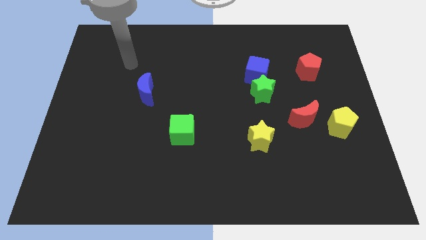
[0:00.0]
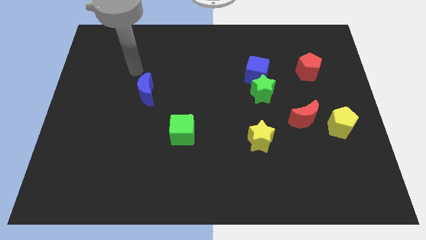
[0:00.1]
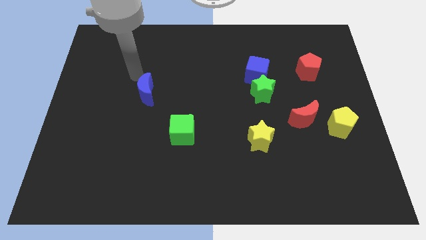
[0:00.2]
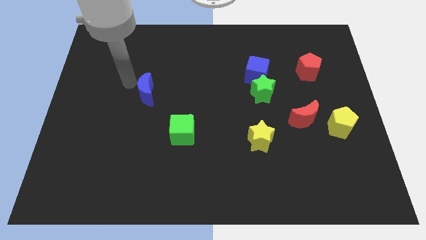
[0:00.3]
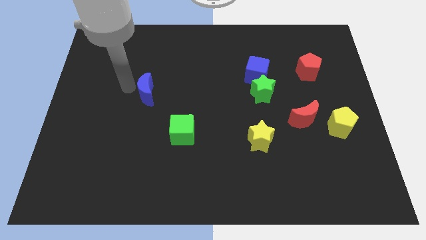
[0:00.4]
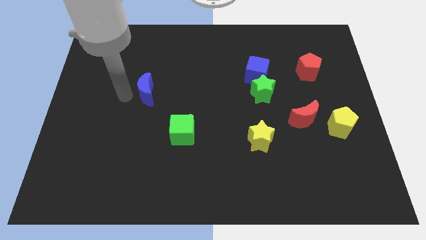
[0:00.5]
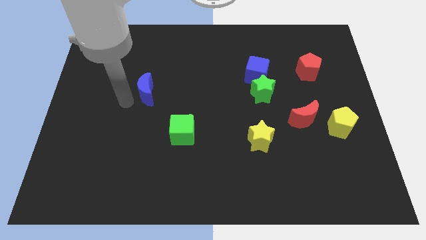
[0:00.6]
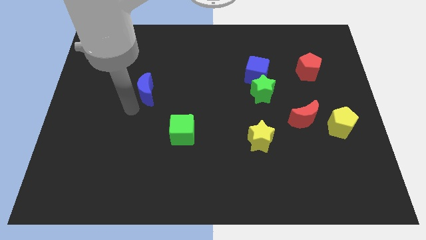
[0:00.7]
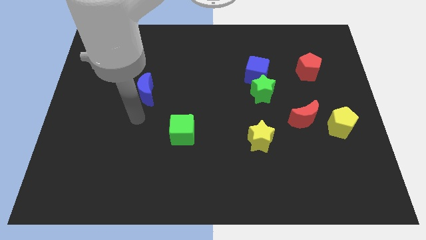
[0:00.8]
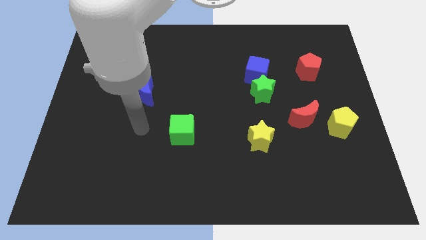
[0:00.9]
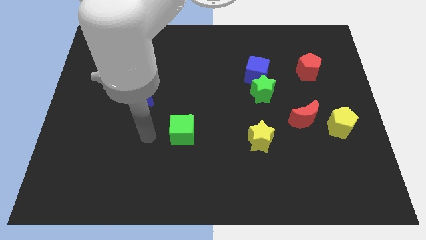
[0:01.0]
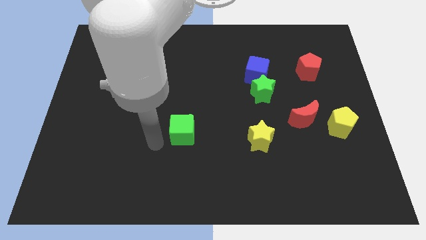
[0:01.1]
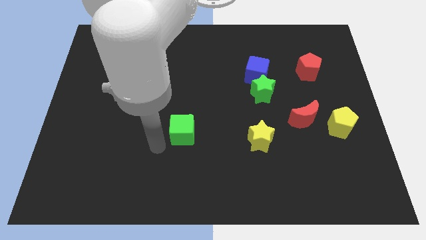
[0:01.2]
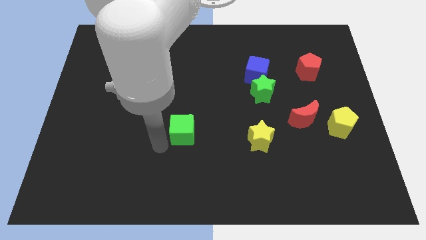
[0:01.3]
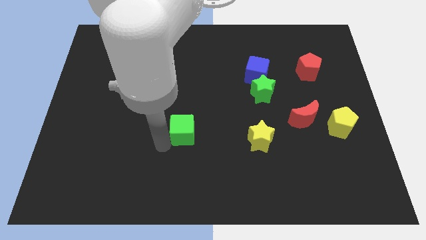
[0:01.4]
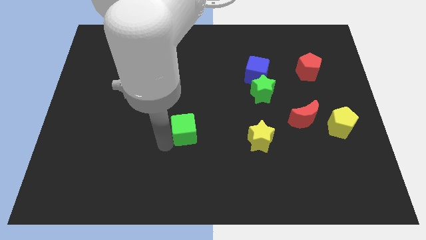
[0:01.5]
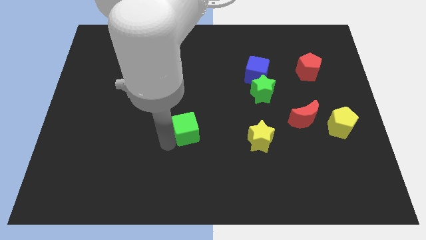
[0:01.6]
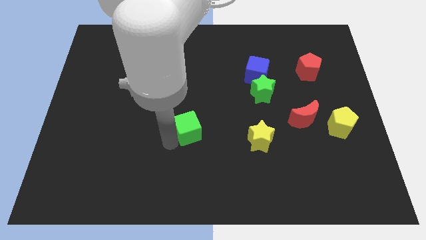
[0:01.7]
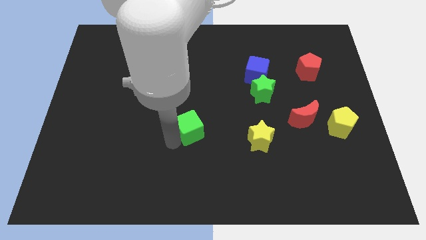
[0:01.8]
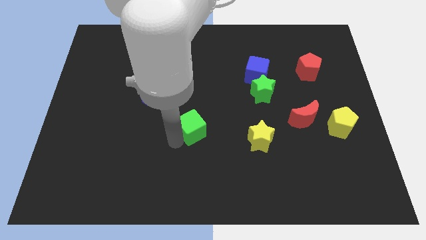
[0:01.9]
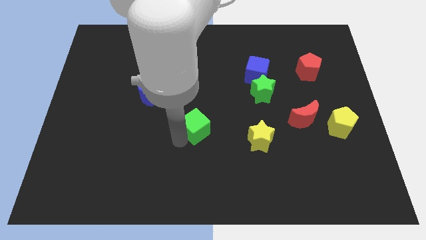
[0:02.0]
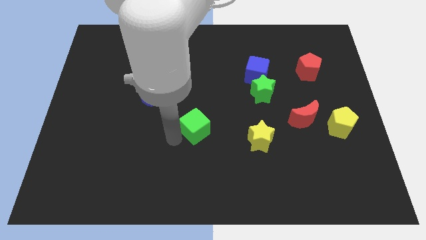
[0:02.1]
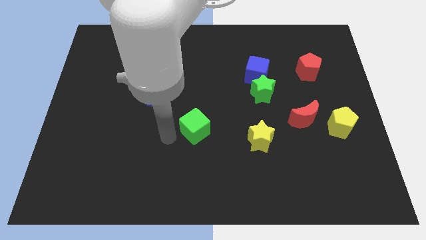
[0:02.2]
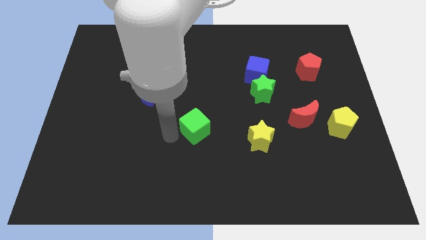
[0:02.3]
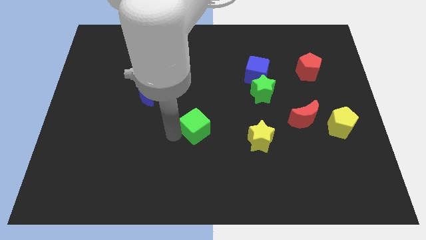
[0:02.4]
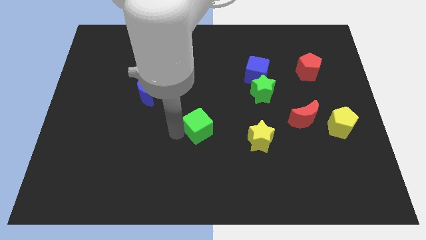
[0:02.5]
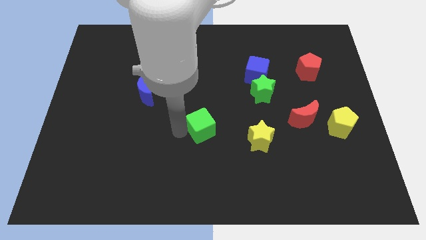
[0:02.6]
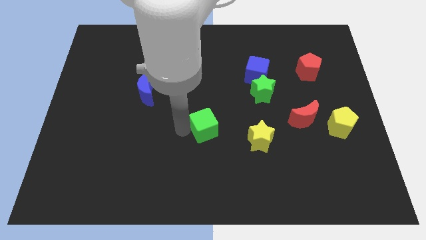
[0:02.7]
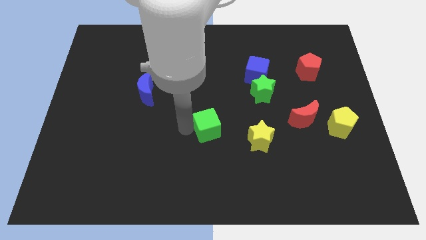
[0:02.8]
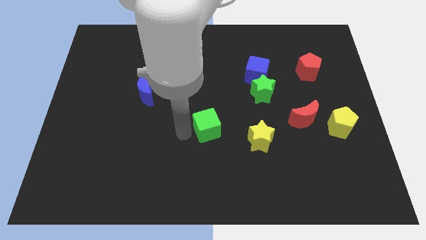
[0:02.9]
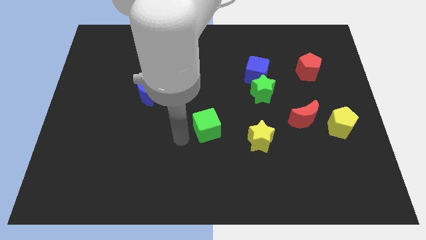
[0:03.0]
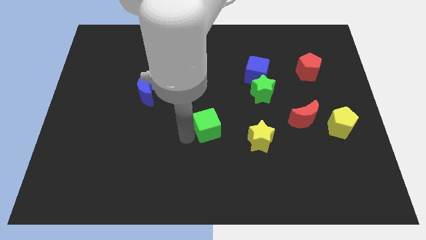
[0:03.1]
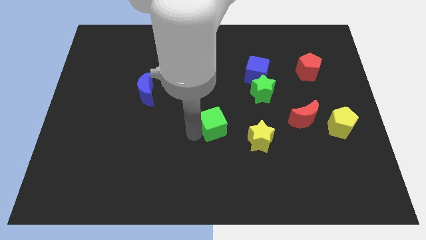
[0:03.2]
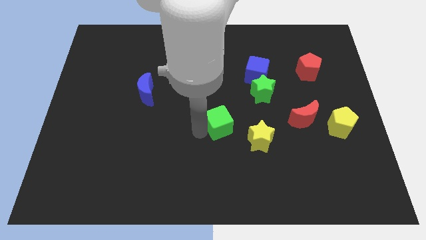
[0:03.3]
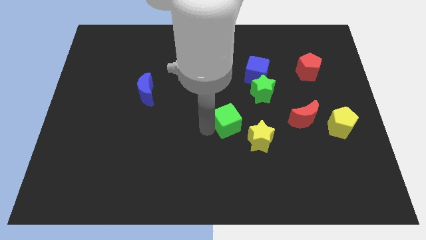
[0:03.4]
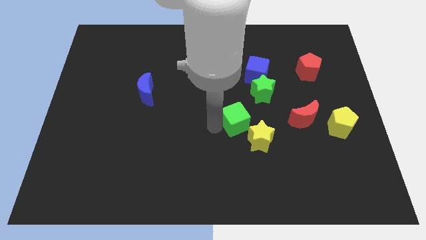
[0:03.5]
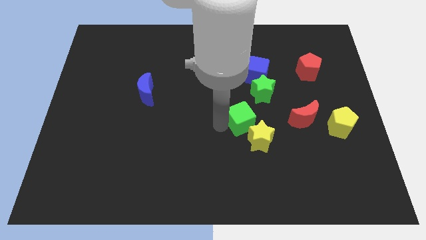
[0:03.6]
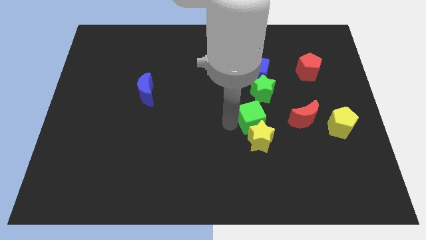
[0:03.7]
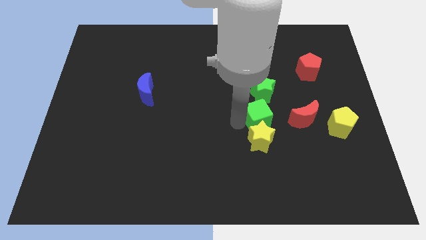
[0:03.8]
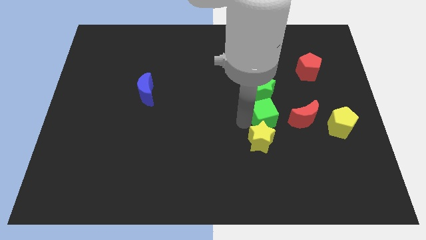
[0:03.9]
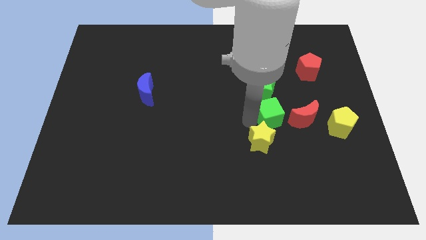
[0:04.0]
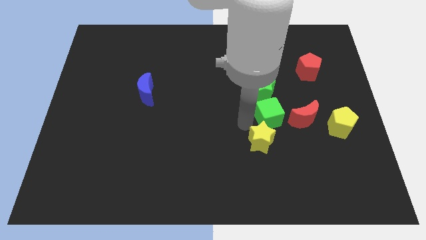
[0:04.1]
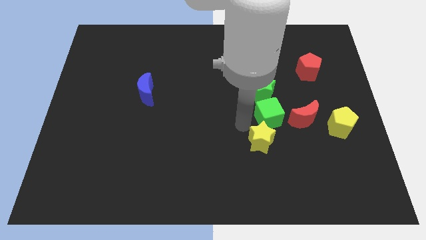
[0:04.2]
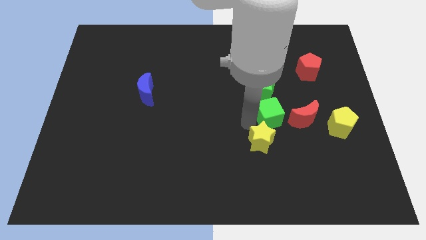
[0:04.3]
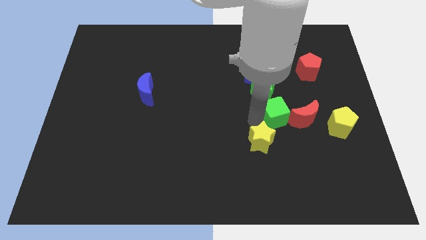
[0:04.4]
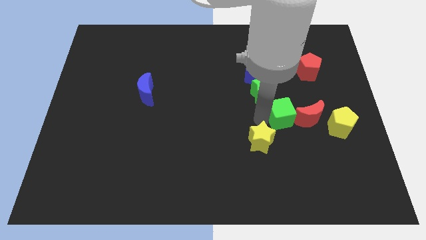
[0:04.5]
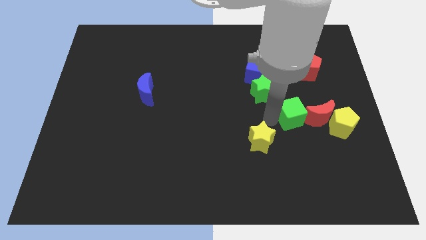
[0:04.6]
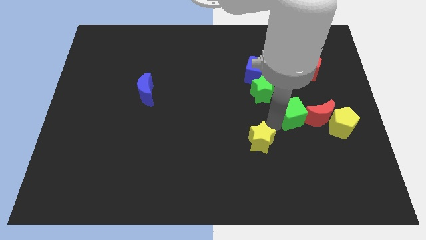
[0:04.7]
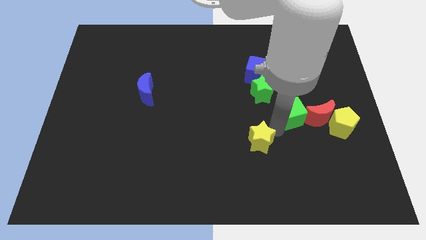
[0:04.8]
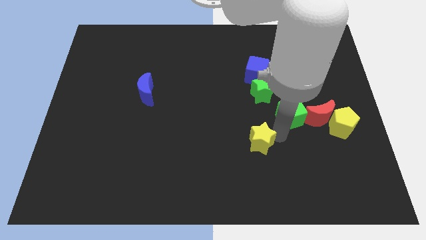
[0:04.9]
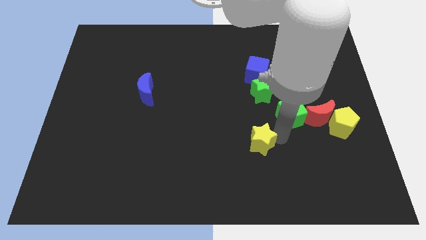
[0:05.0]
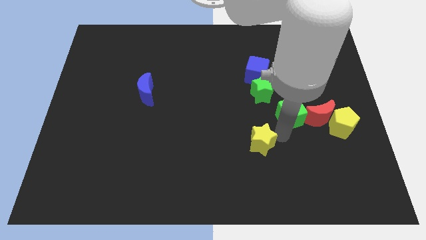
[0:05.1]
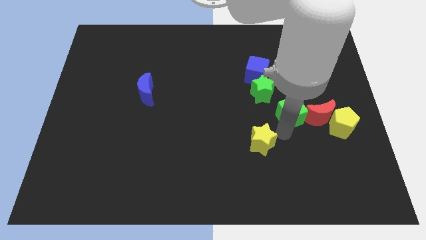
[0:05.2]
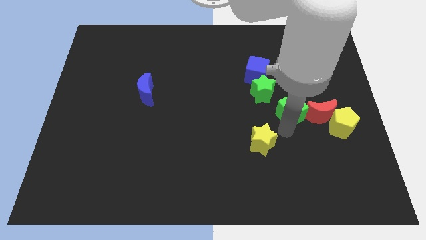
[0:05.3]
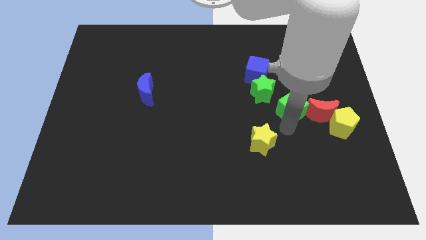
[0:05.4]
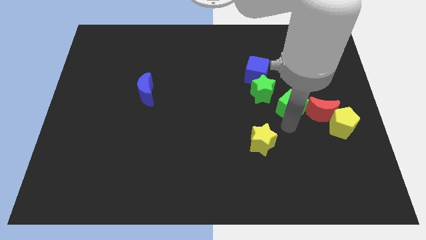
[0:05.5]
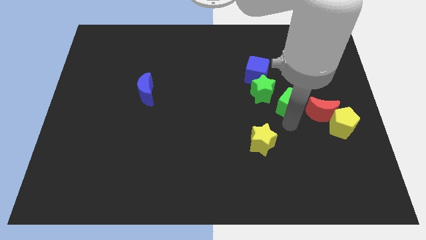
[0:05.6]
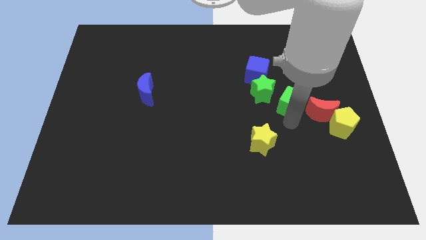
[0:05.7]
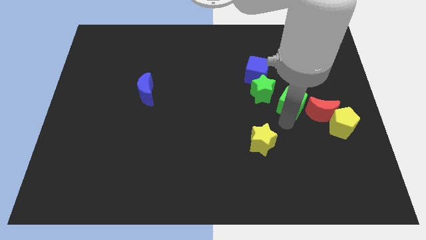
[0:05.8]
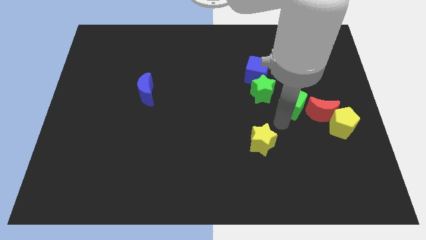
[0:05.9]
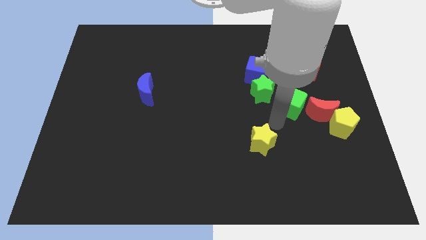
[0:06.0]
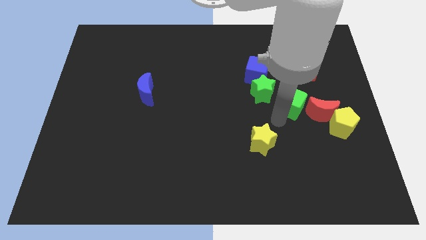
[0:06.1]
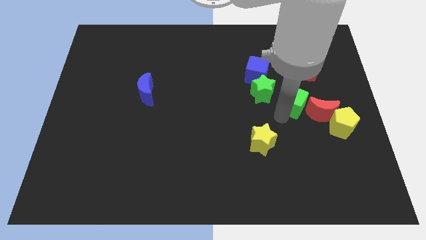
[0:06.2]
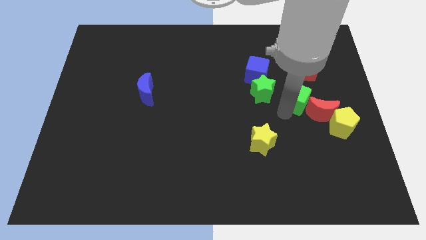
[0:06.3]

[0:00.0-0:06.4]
move the green cube below the red pentagon

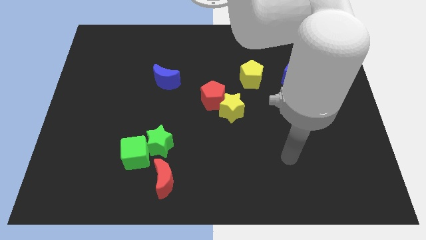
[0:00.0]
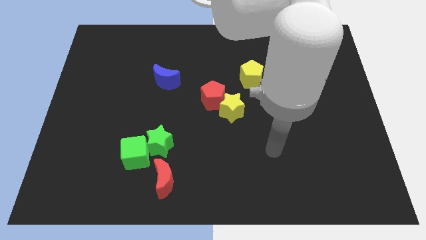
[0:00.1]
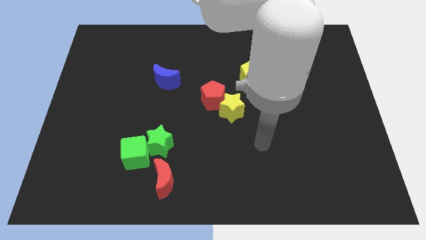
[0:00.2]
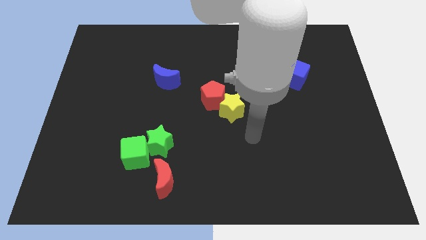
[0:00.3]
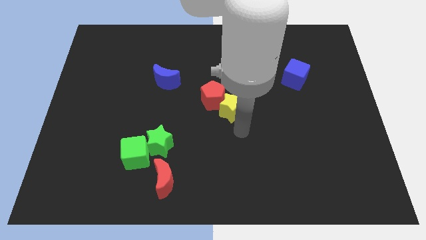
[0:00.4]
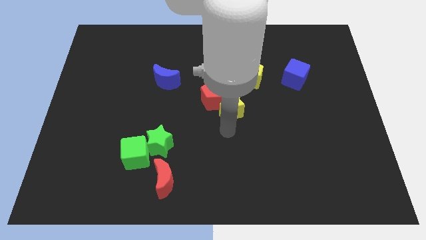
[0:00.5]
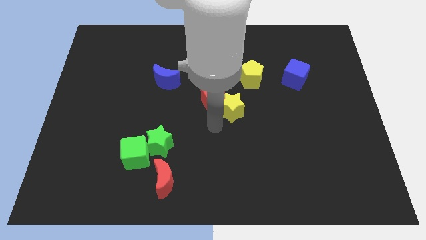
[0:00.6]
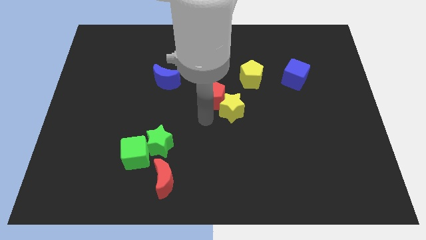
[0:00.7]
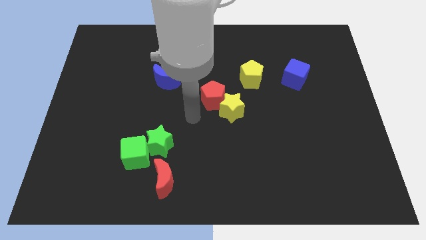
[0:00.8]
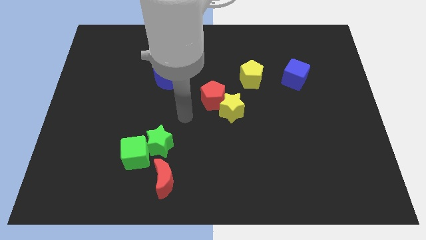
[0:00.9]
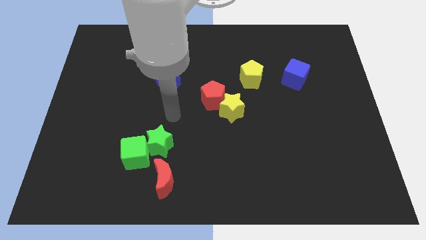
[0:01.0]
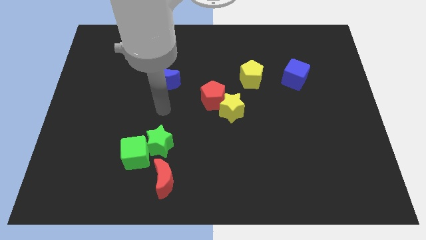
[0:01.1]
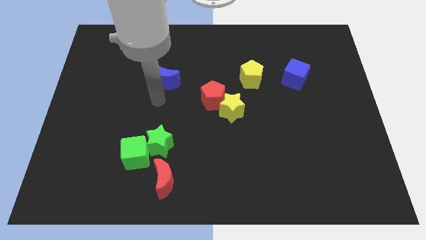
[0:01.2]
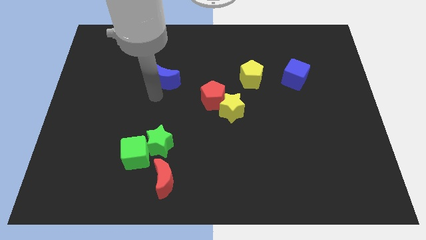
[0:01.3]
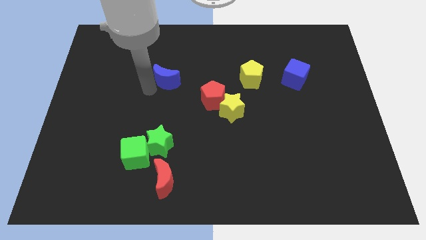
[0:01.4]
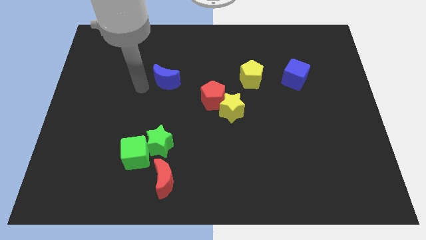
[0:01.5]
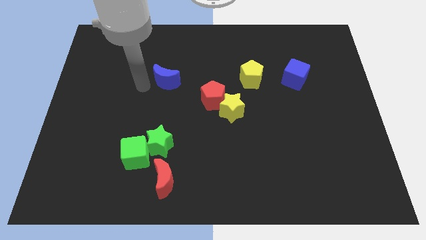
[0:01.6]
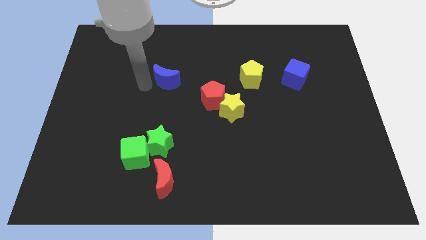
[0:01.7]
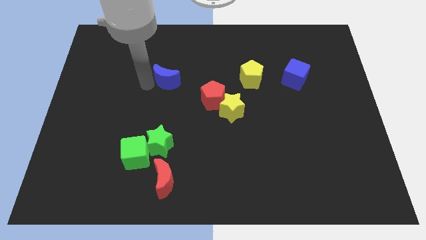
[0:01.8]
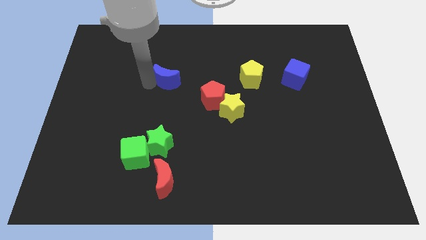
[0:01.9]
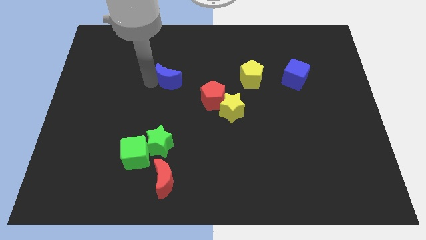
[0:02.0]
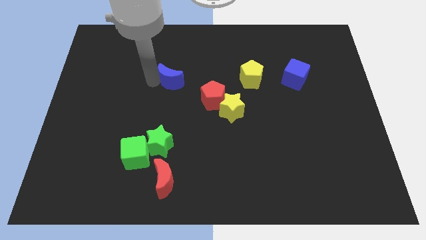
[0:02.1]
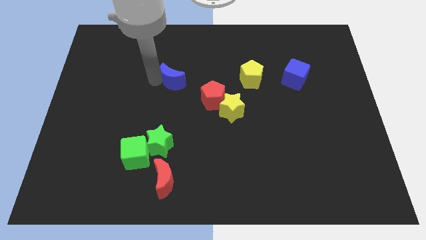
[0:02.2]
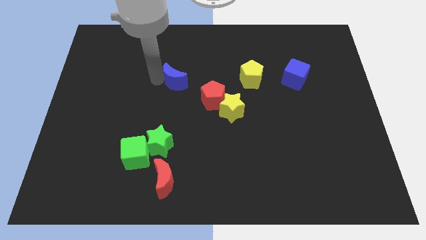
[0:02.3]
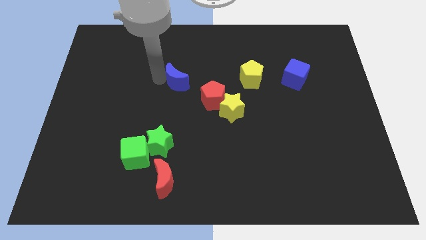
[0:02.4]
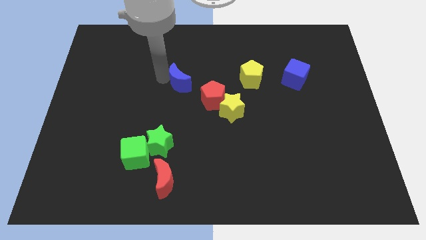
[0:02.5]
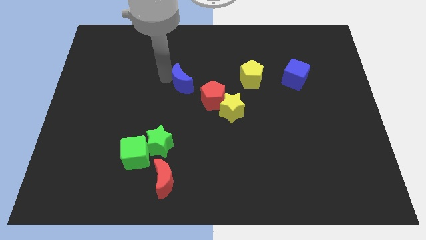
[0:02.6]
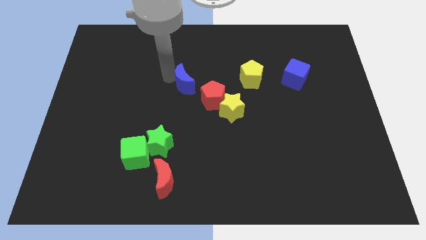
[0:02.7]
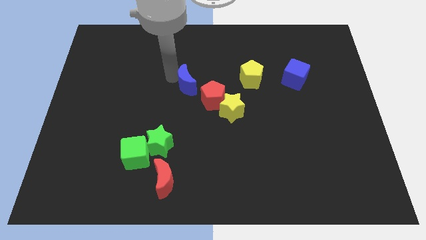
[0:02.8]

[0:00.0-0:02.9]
put the blue moon left of the yellow pentagon
